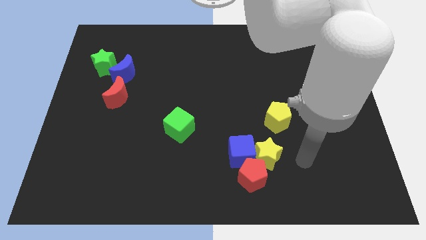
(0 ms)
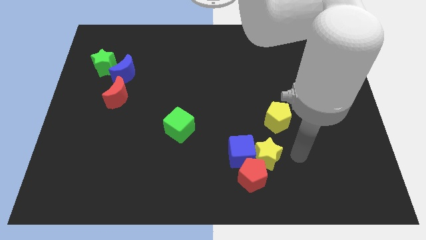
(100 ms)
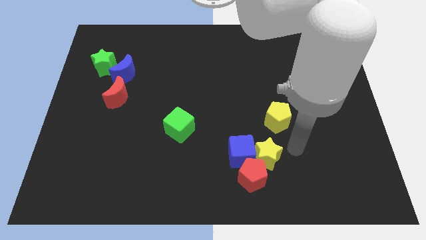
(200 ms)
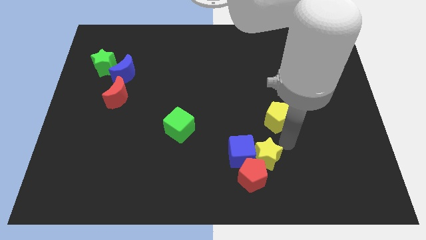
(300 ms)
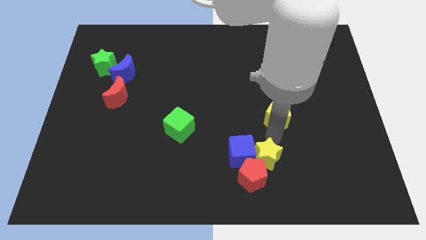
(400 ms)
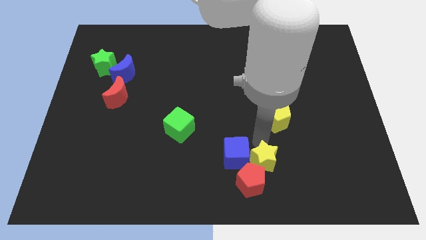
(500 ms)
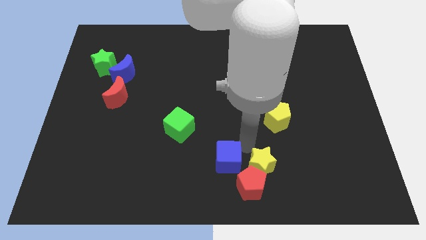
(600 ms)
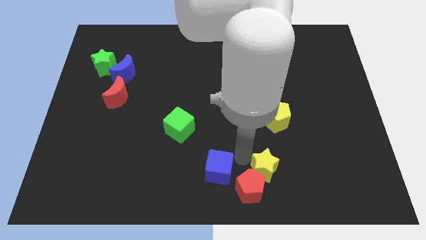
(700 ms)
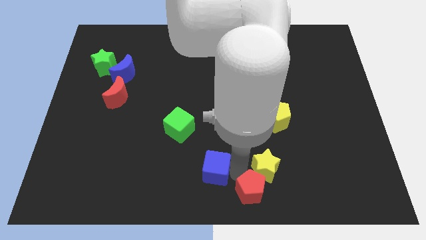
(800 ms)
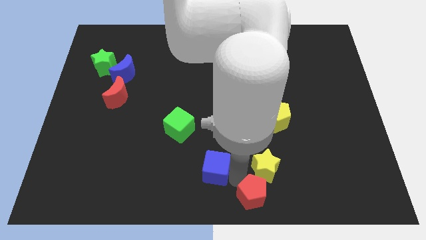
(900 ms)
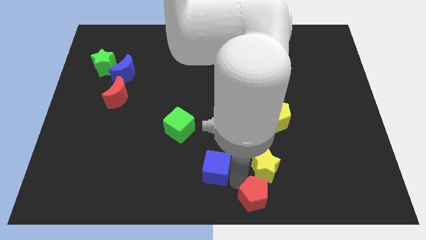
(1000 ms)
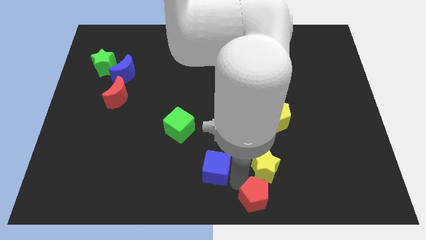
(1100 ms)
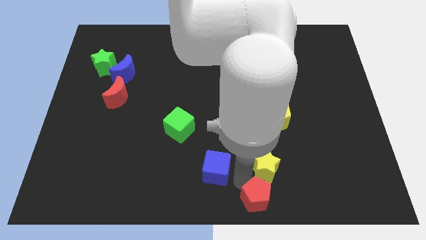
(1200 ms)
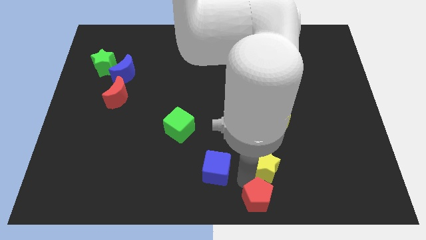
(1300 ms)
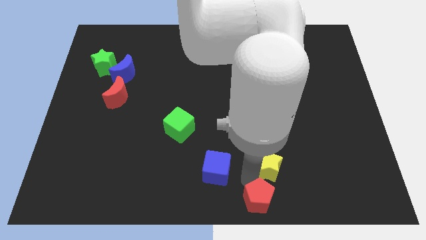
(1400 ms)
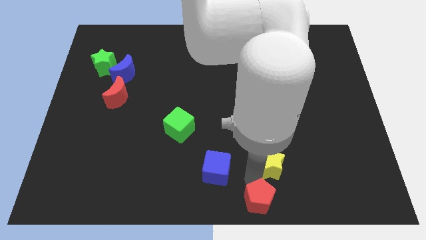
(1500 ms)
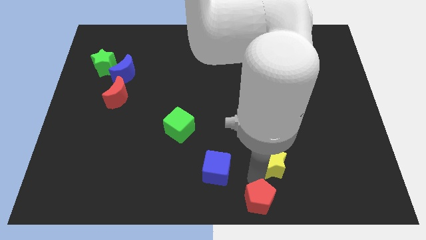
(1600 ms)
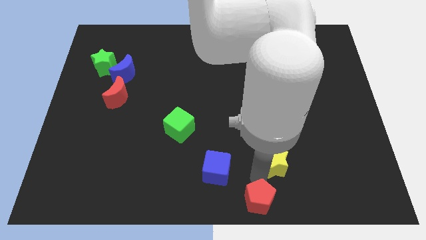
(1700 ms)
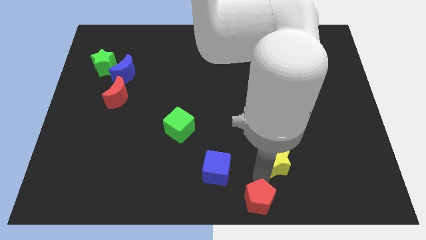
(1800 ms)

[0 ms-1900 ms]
pull the yellow star apart from the blue cube and red pentagon

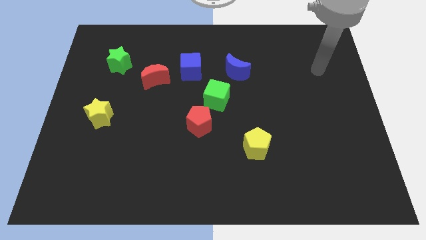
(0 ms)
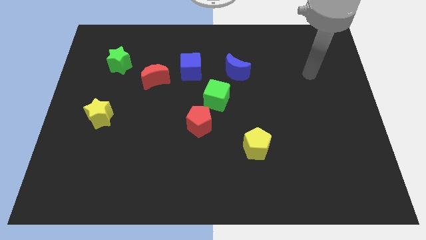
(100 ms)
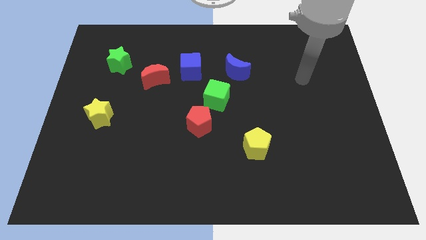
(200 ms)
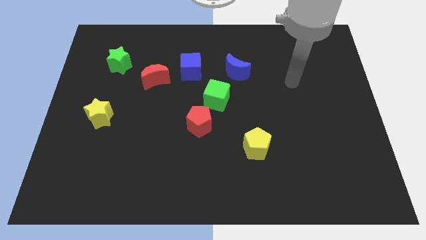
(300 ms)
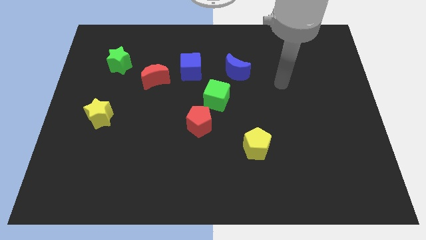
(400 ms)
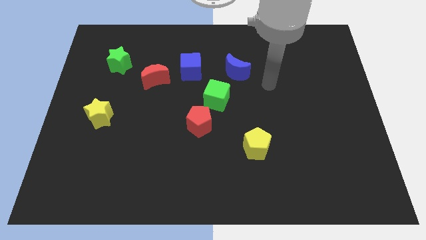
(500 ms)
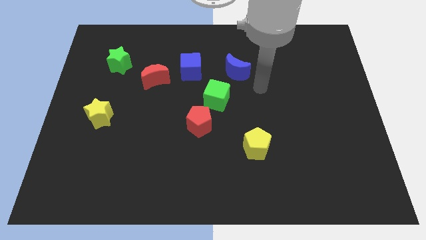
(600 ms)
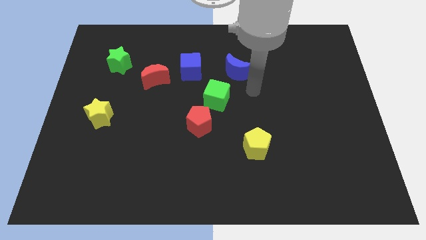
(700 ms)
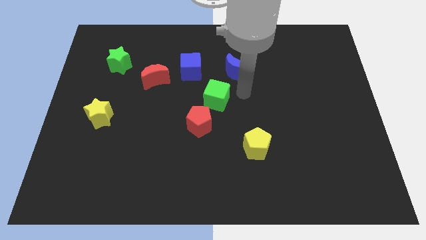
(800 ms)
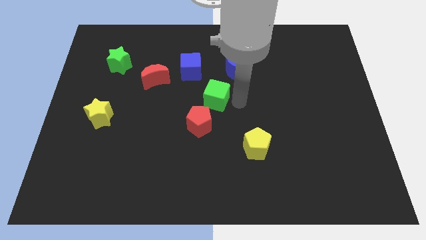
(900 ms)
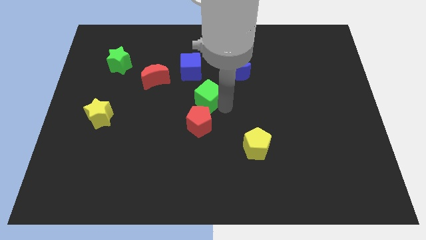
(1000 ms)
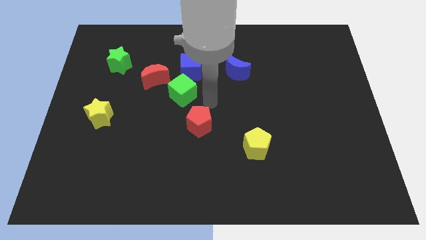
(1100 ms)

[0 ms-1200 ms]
move the red pentagon away from the green cube

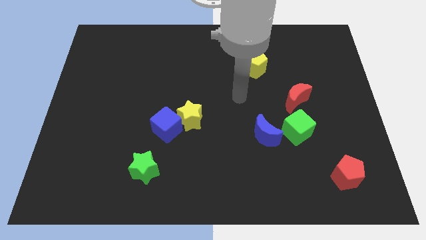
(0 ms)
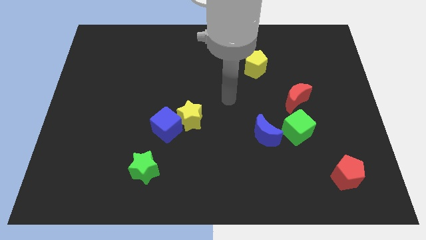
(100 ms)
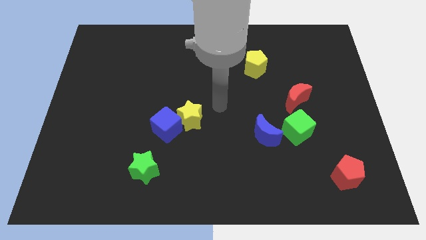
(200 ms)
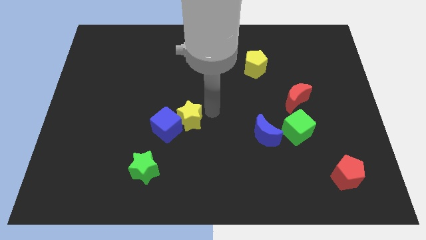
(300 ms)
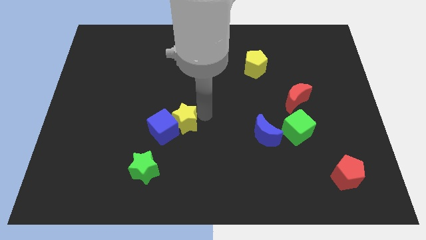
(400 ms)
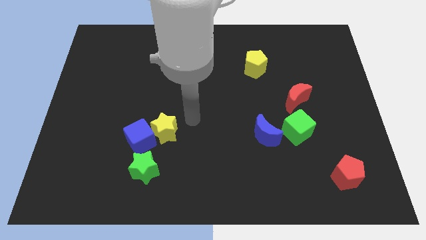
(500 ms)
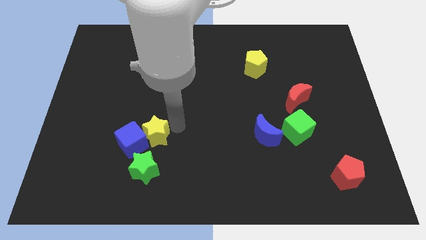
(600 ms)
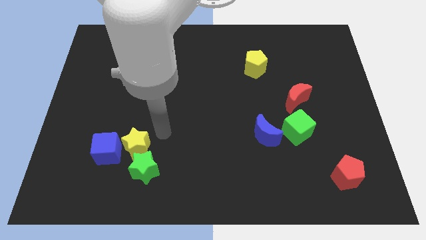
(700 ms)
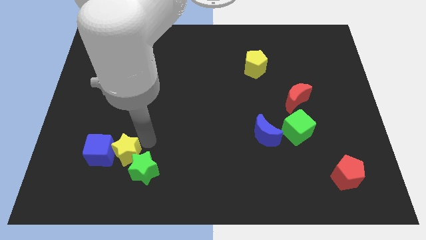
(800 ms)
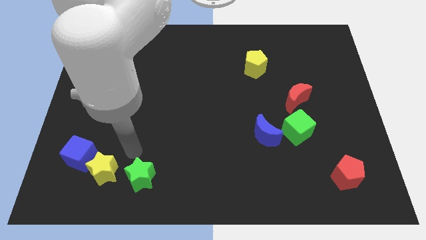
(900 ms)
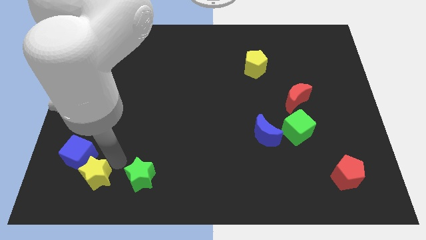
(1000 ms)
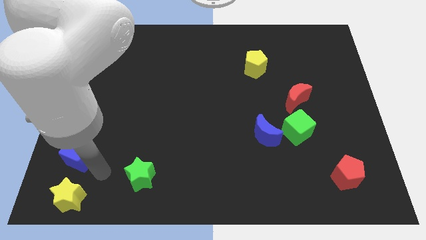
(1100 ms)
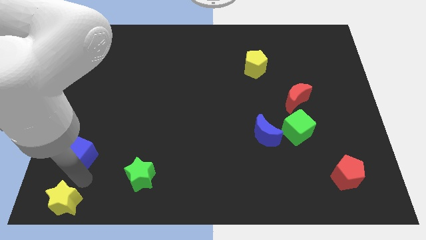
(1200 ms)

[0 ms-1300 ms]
move the blue cube away from the yellow star

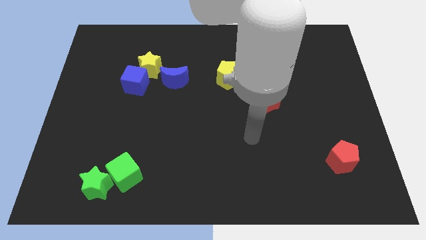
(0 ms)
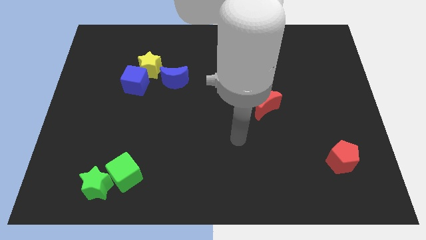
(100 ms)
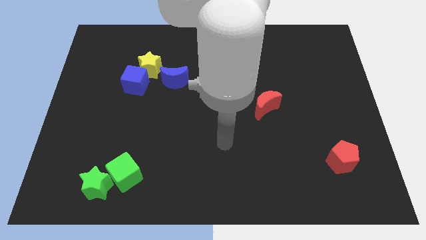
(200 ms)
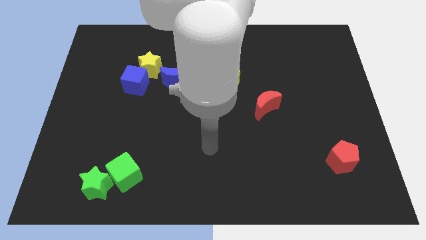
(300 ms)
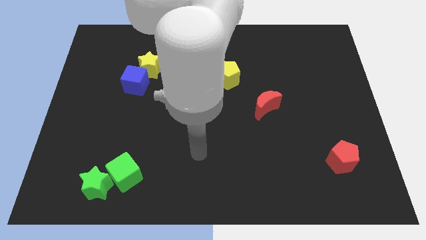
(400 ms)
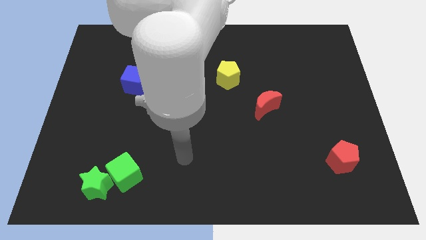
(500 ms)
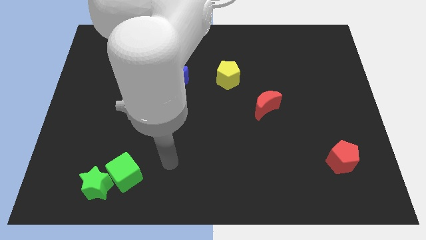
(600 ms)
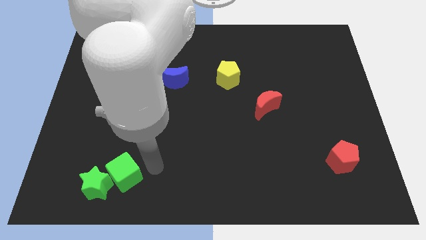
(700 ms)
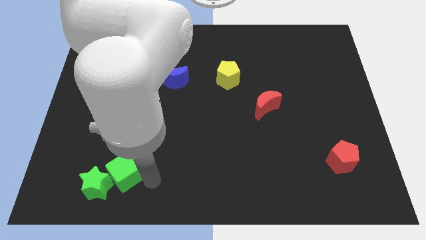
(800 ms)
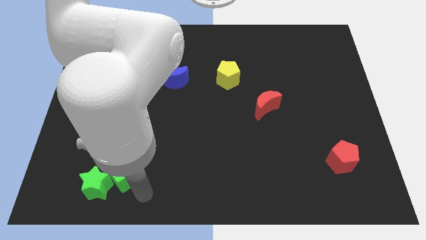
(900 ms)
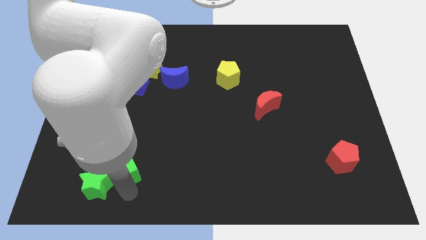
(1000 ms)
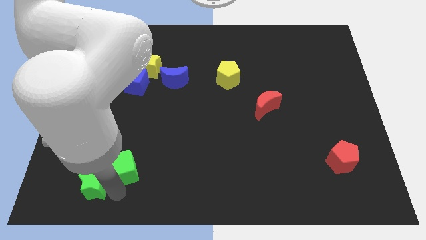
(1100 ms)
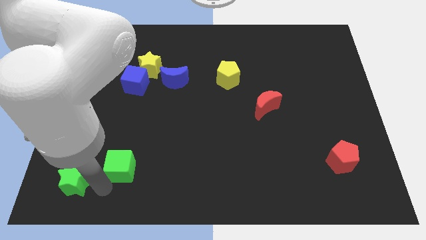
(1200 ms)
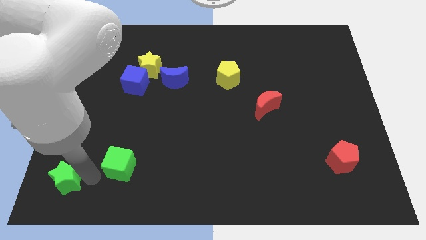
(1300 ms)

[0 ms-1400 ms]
move the green cube away from the green star

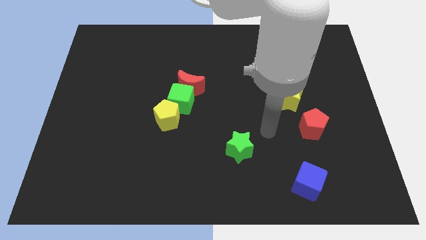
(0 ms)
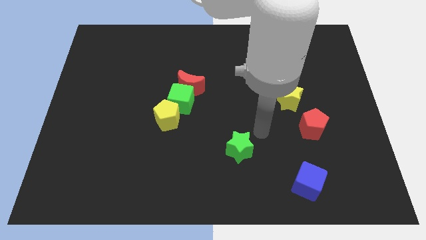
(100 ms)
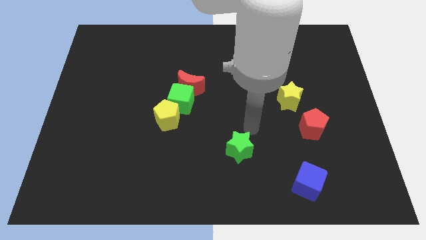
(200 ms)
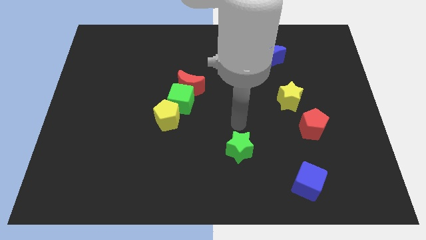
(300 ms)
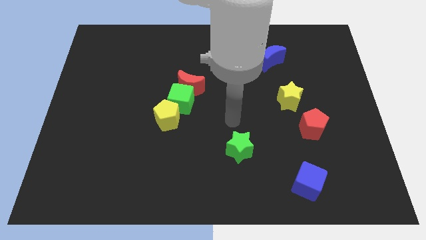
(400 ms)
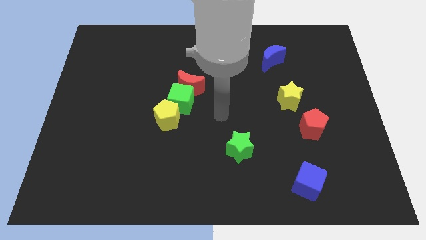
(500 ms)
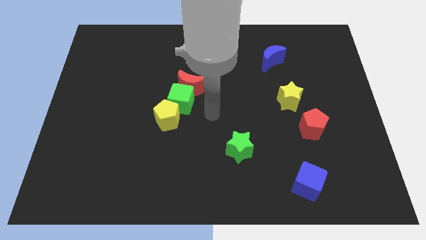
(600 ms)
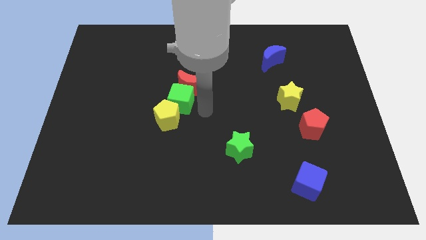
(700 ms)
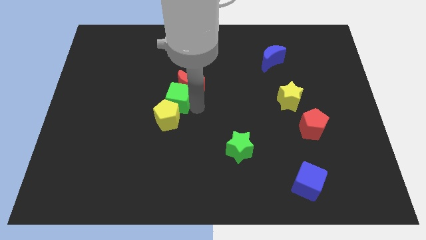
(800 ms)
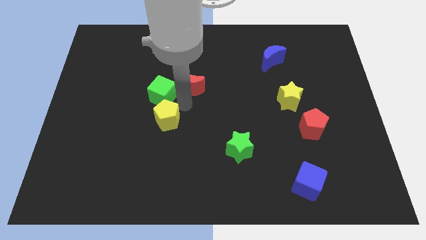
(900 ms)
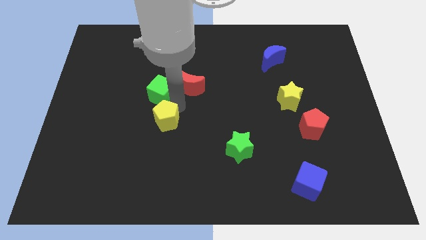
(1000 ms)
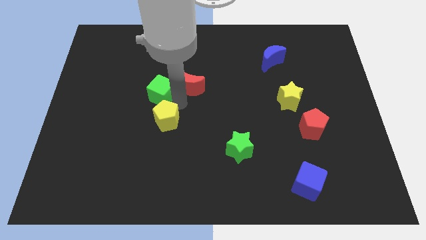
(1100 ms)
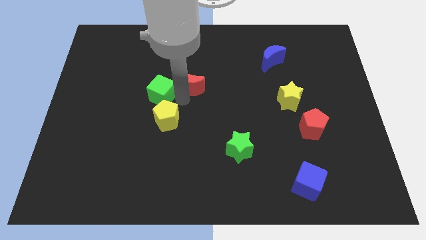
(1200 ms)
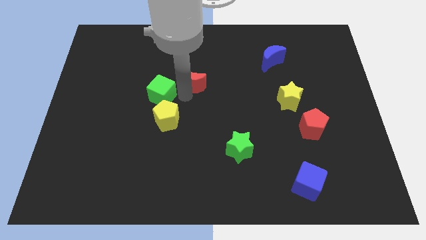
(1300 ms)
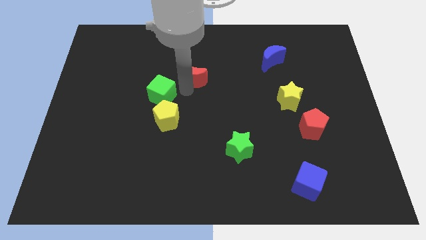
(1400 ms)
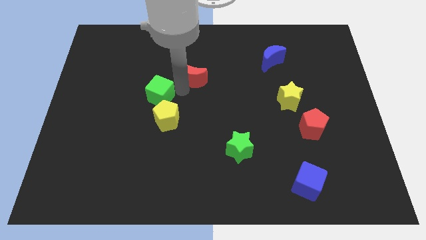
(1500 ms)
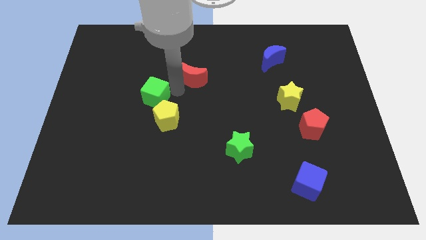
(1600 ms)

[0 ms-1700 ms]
pull the red moon apart from the green cube

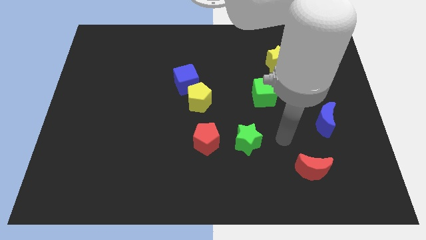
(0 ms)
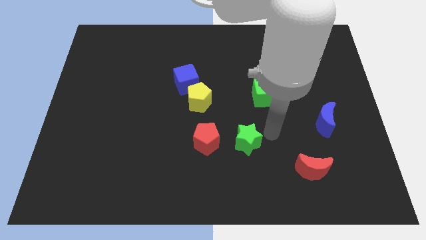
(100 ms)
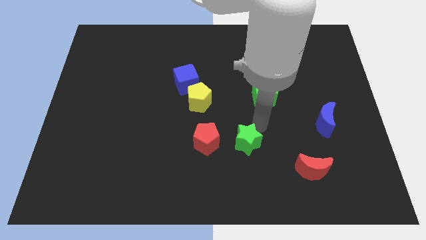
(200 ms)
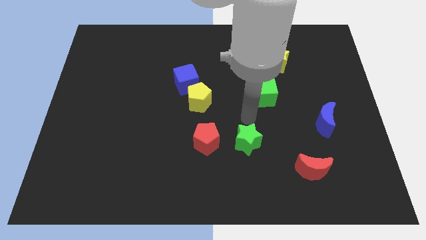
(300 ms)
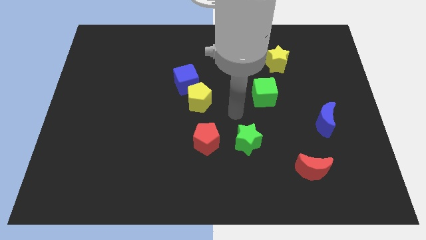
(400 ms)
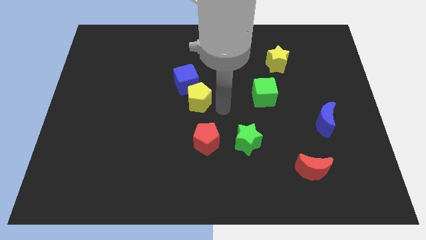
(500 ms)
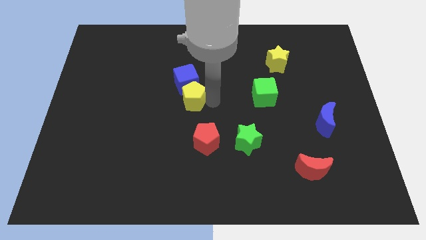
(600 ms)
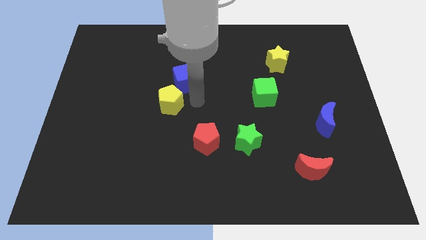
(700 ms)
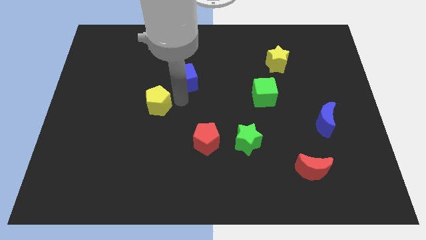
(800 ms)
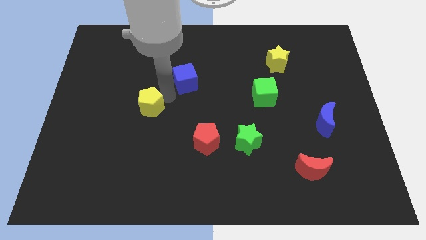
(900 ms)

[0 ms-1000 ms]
separate the blue cube from the yellow pentagon

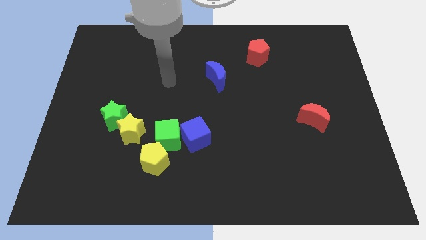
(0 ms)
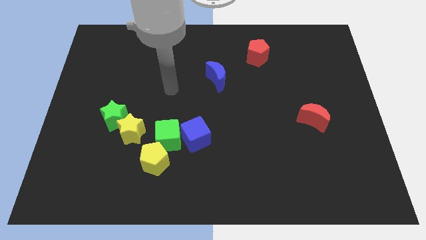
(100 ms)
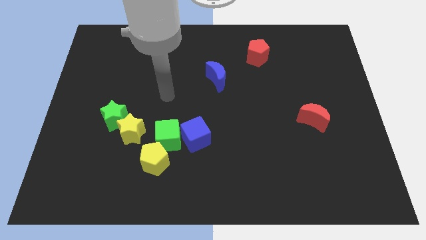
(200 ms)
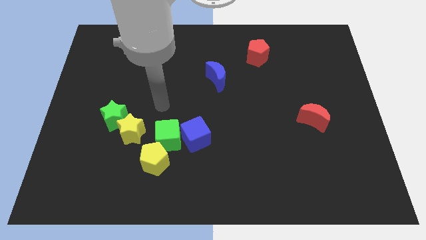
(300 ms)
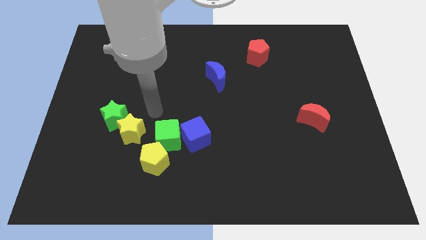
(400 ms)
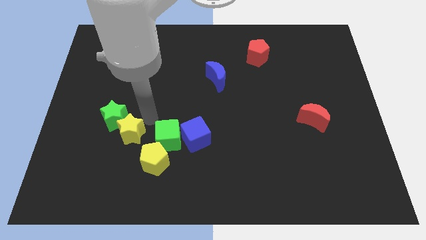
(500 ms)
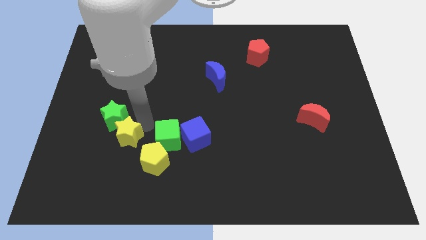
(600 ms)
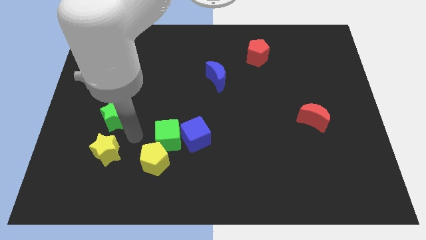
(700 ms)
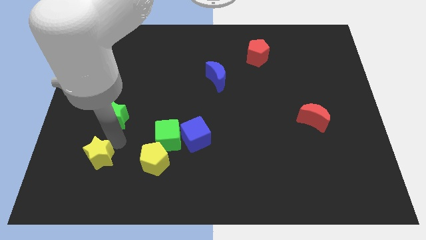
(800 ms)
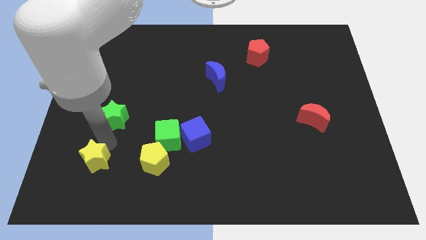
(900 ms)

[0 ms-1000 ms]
separate the green star from the yellow star
